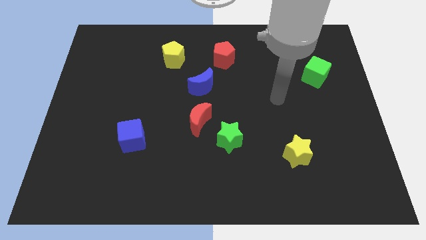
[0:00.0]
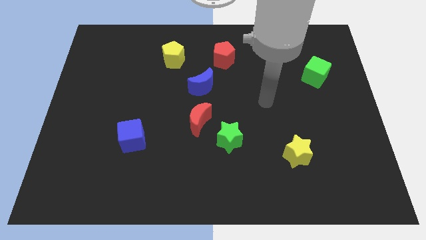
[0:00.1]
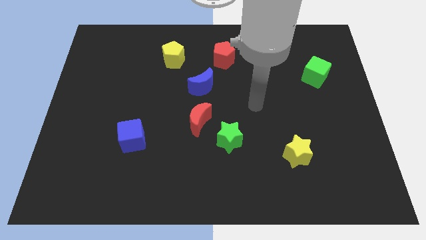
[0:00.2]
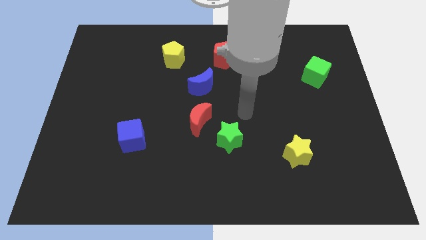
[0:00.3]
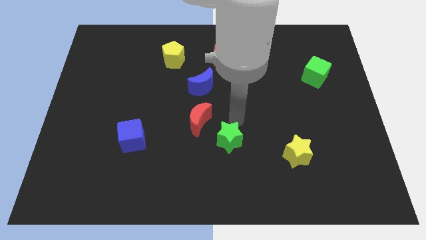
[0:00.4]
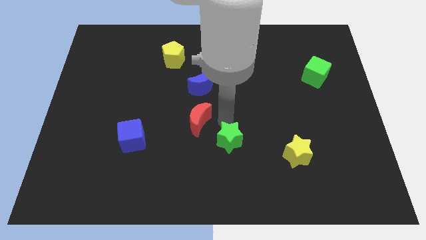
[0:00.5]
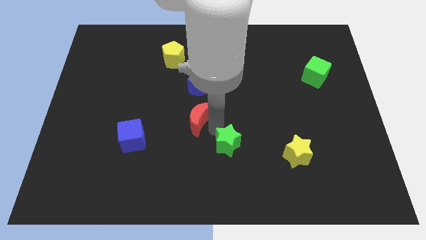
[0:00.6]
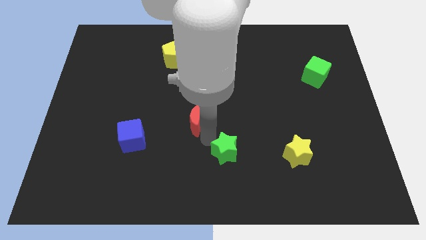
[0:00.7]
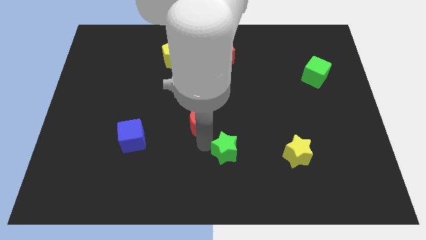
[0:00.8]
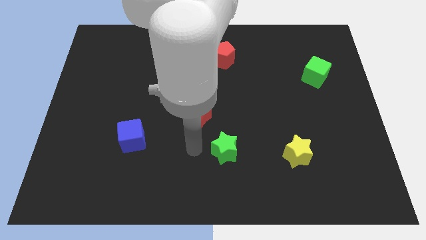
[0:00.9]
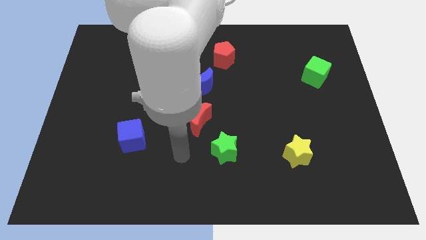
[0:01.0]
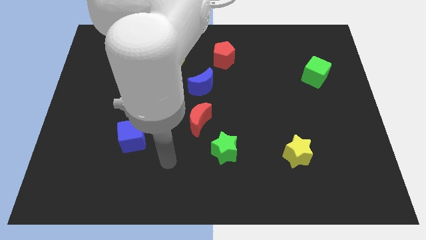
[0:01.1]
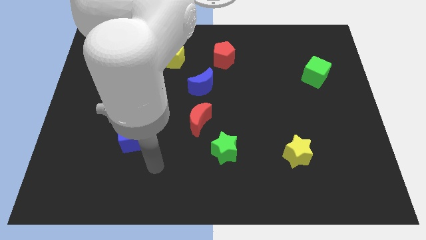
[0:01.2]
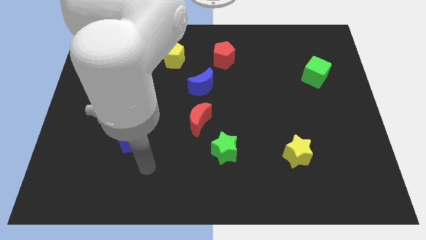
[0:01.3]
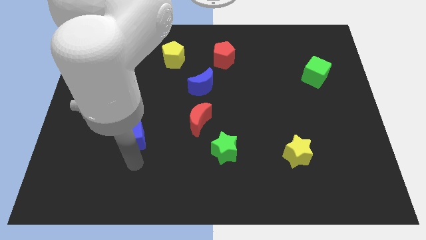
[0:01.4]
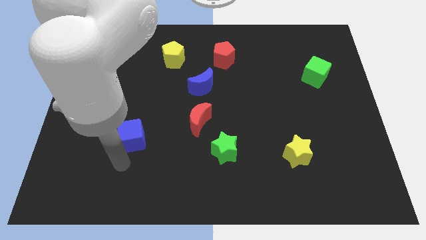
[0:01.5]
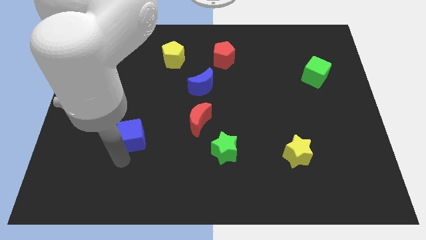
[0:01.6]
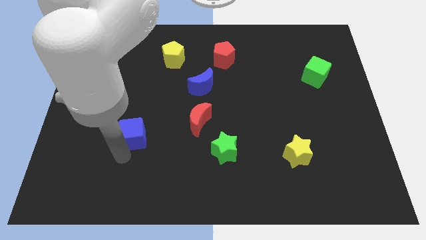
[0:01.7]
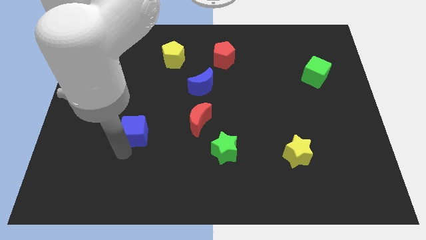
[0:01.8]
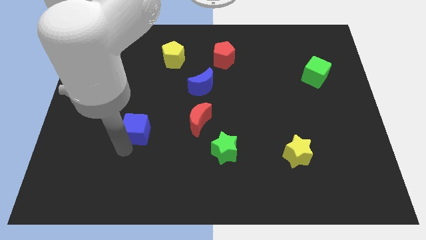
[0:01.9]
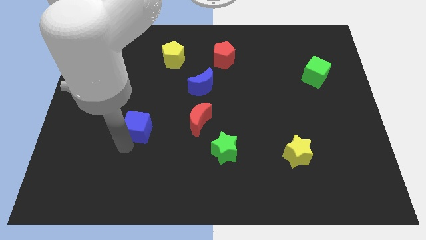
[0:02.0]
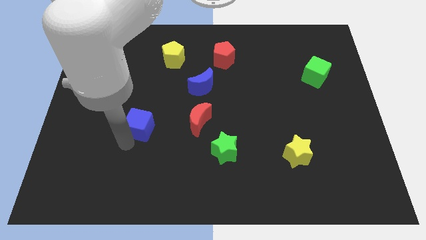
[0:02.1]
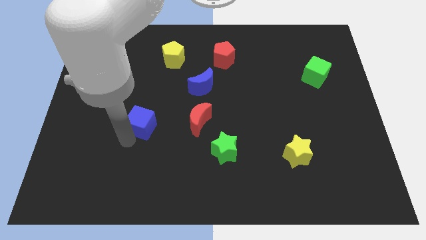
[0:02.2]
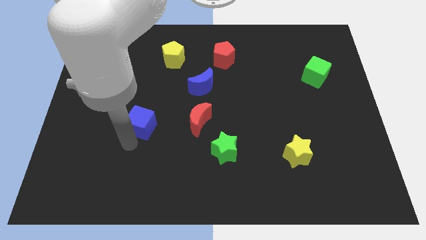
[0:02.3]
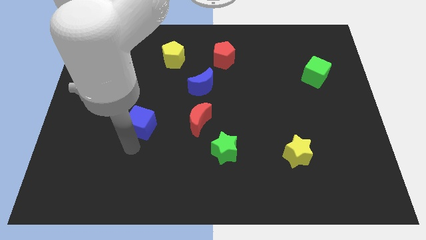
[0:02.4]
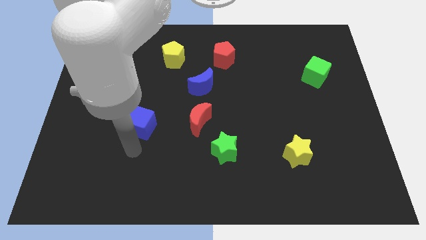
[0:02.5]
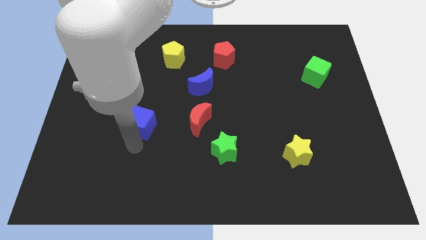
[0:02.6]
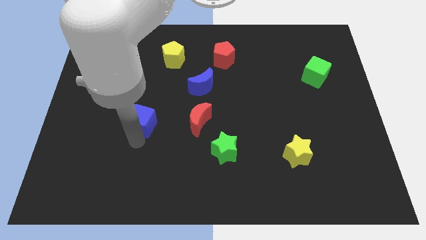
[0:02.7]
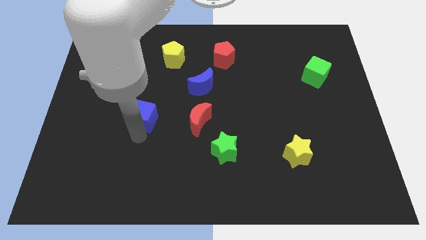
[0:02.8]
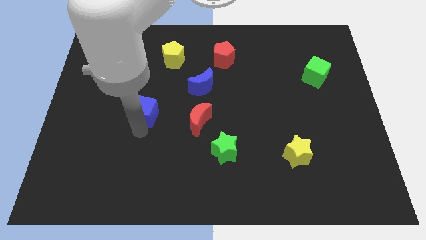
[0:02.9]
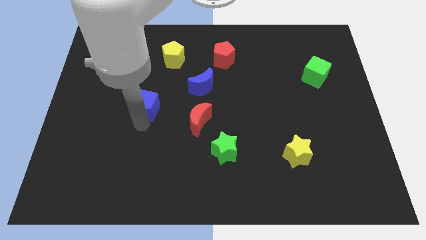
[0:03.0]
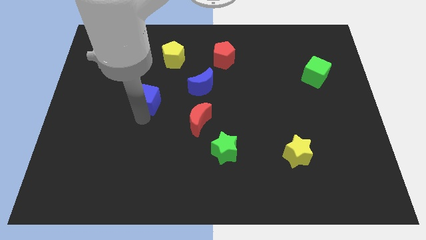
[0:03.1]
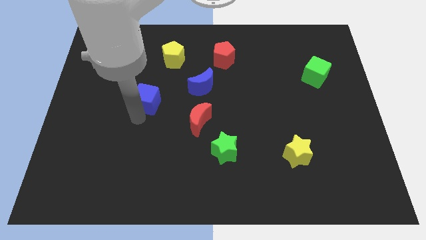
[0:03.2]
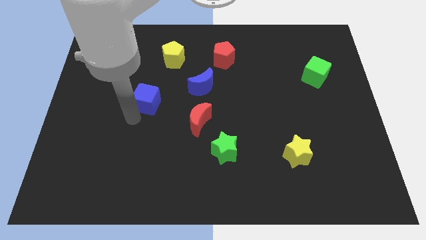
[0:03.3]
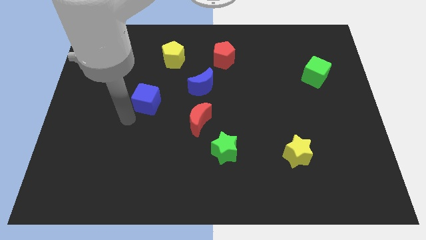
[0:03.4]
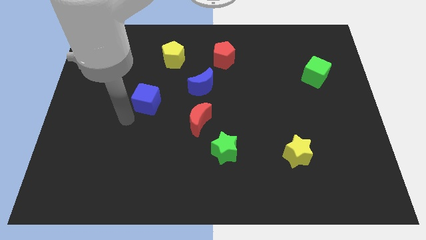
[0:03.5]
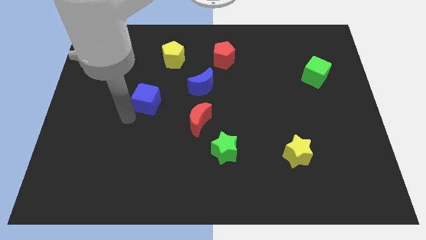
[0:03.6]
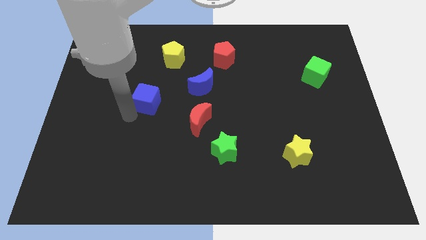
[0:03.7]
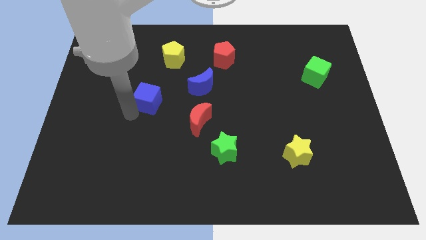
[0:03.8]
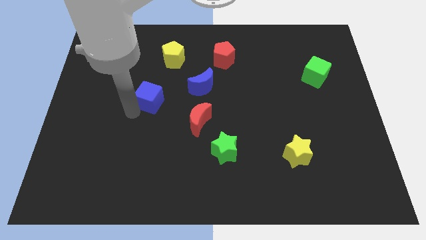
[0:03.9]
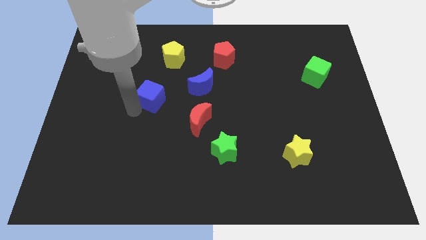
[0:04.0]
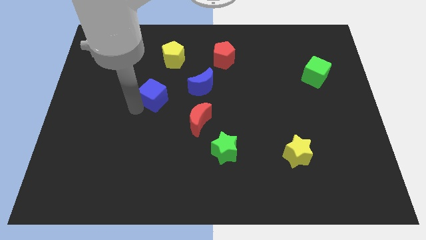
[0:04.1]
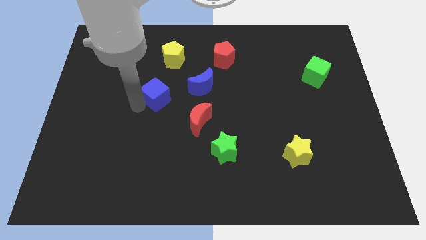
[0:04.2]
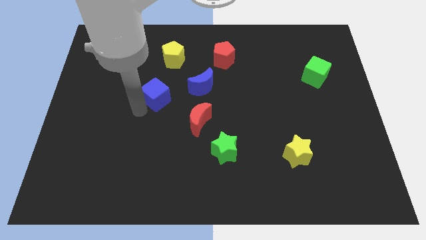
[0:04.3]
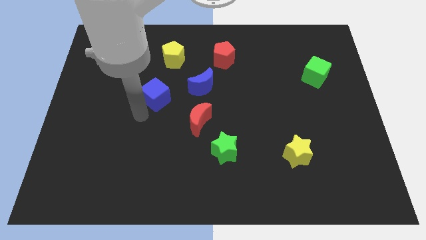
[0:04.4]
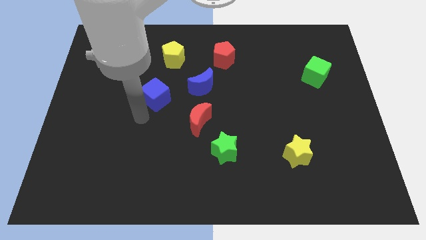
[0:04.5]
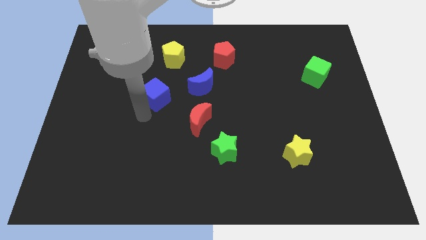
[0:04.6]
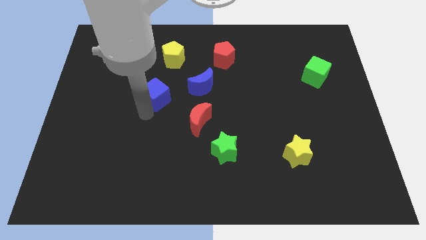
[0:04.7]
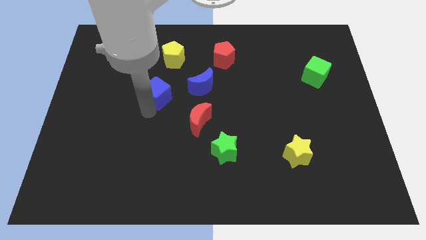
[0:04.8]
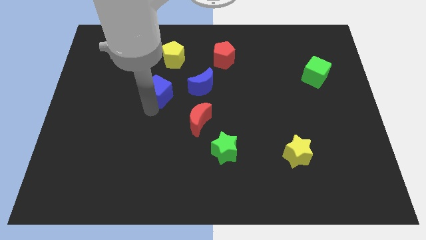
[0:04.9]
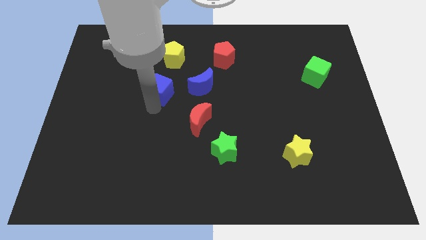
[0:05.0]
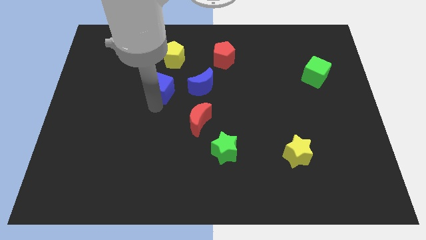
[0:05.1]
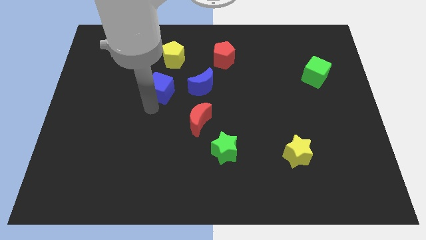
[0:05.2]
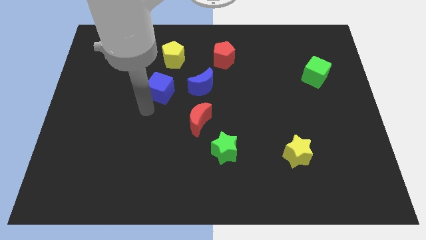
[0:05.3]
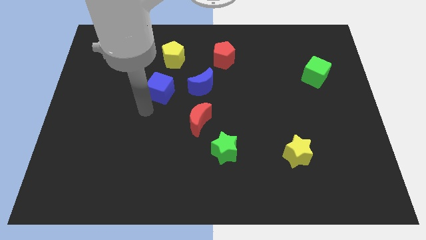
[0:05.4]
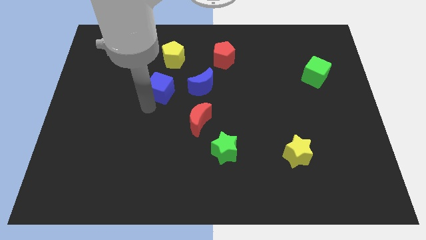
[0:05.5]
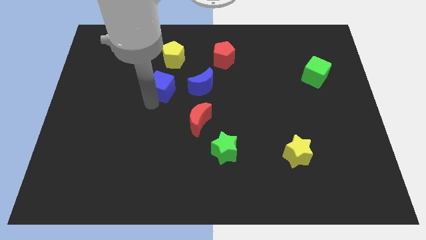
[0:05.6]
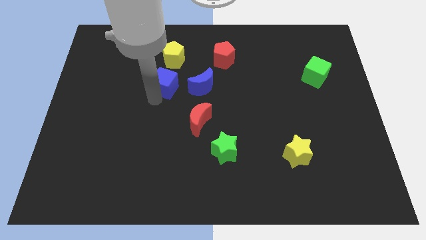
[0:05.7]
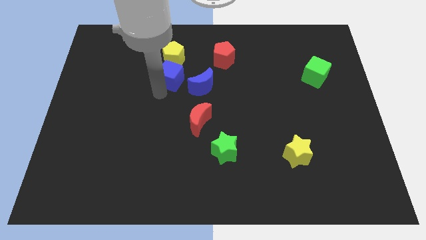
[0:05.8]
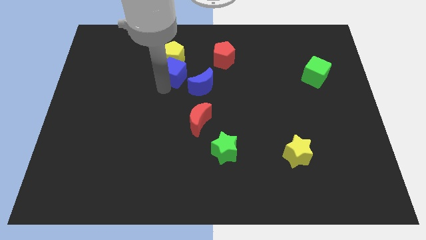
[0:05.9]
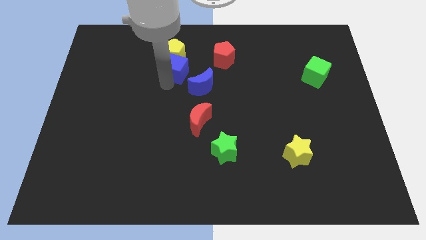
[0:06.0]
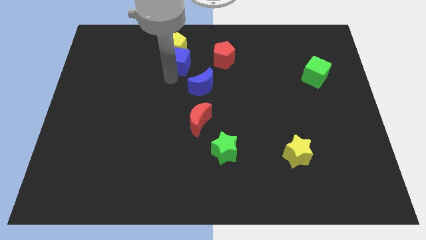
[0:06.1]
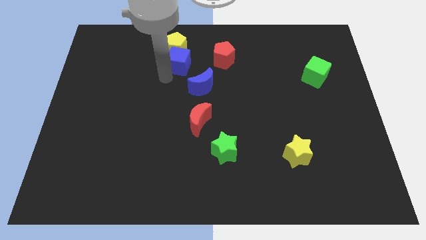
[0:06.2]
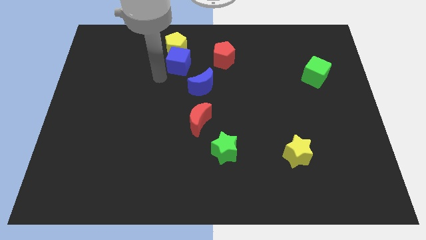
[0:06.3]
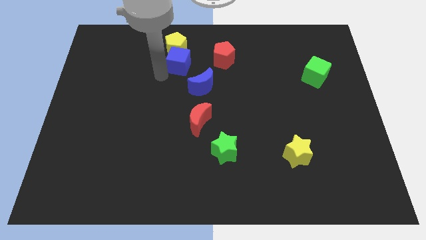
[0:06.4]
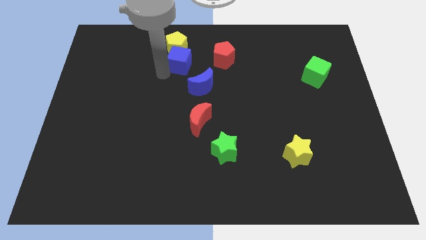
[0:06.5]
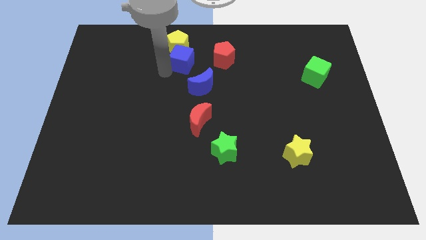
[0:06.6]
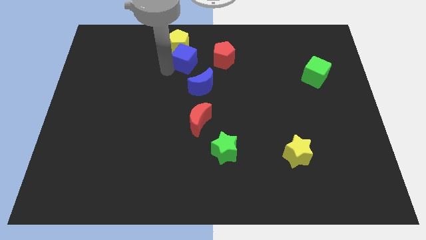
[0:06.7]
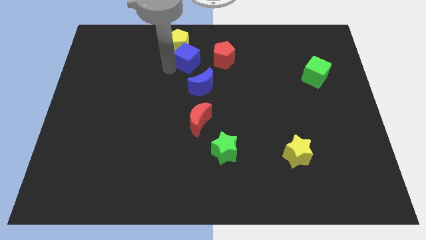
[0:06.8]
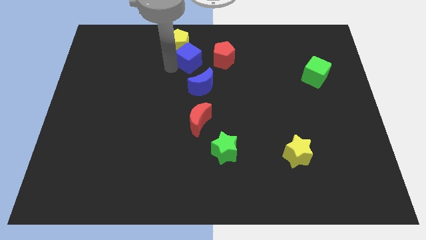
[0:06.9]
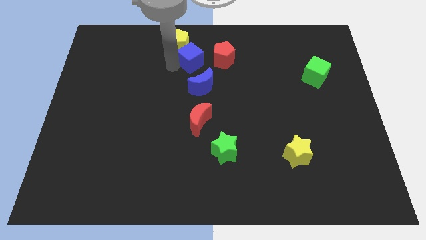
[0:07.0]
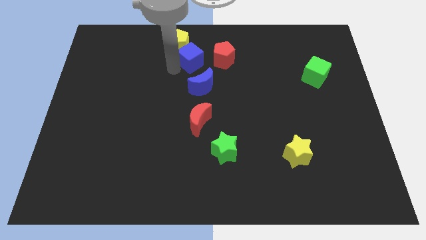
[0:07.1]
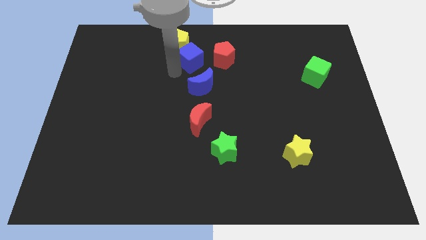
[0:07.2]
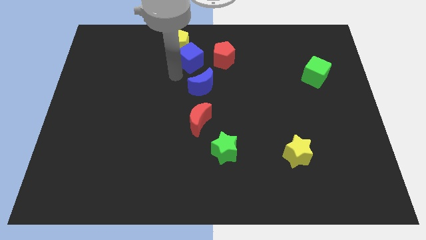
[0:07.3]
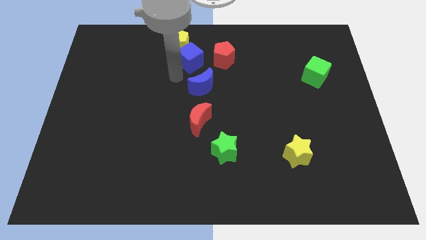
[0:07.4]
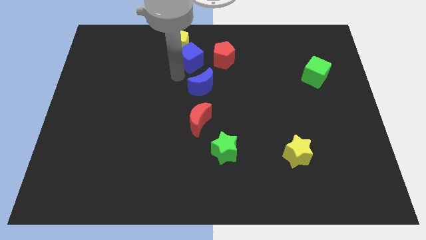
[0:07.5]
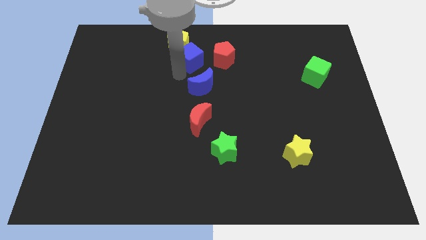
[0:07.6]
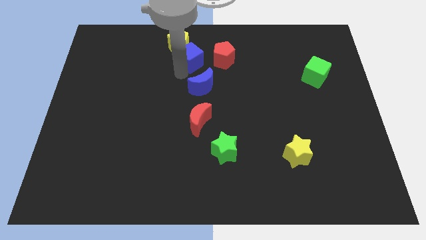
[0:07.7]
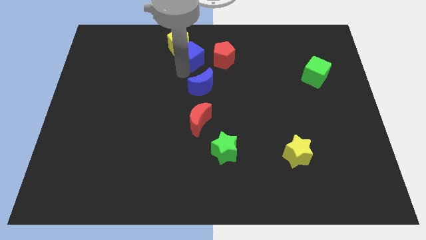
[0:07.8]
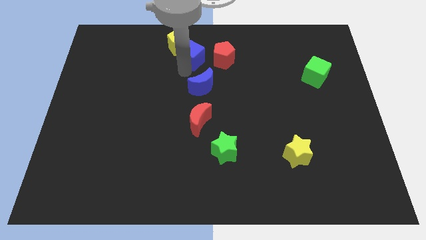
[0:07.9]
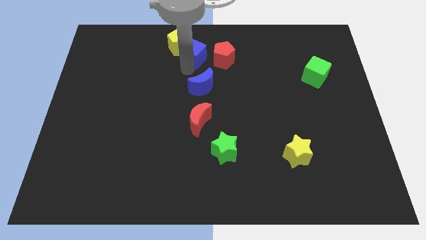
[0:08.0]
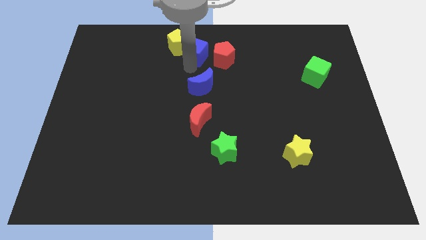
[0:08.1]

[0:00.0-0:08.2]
slide the blue cube to the top side
